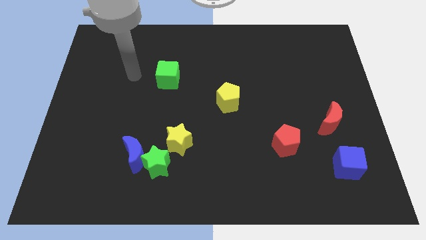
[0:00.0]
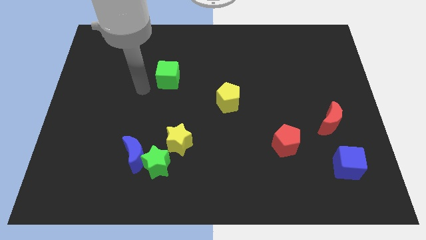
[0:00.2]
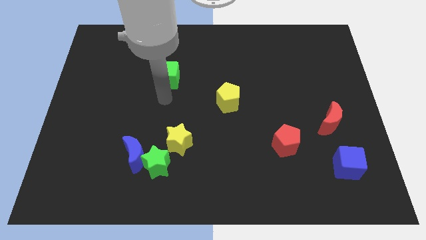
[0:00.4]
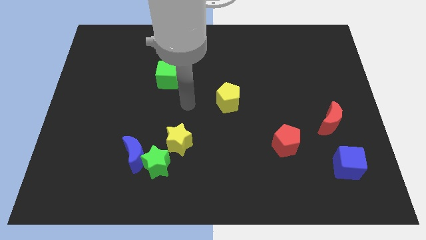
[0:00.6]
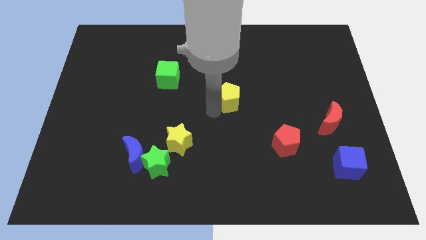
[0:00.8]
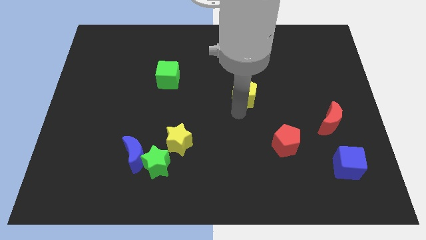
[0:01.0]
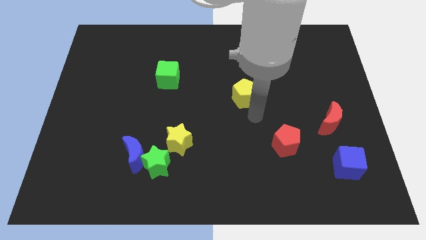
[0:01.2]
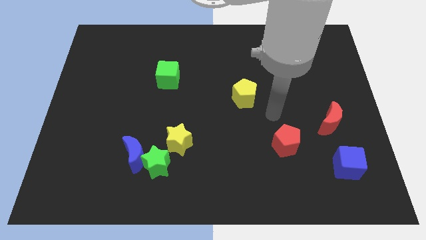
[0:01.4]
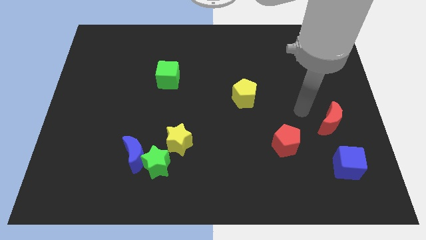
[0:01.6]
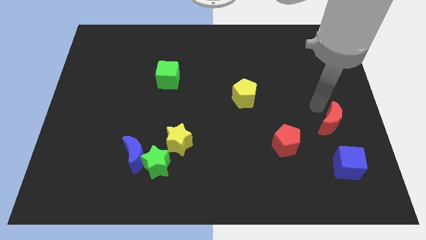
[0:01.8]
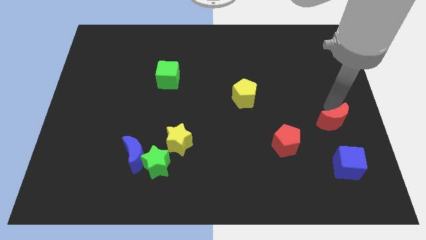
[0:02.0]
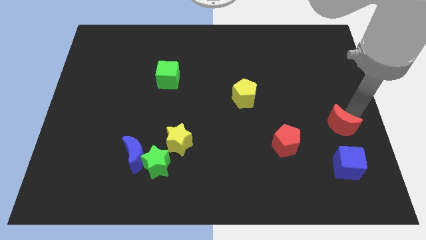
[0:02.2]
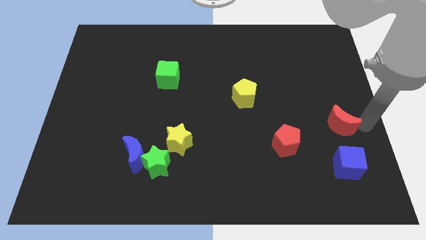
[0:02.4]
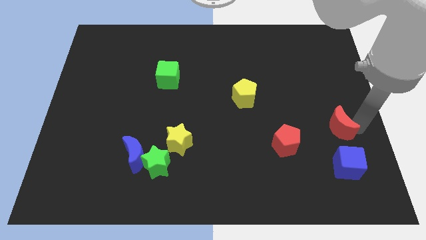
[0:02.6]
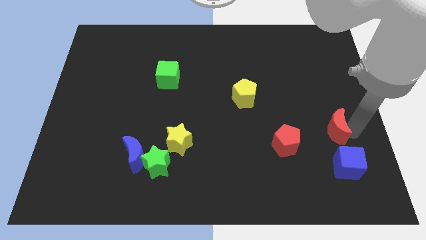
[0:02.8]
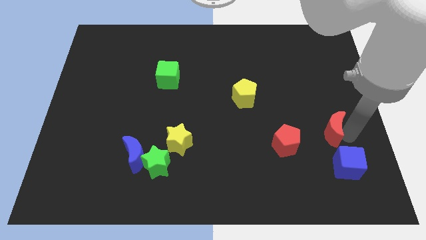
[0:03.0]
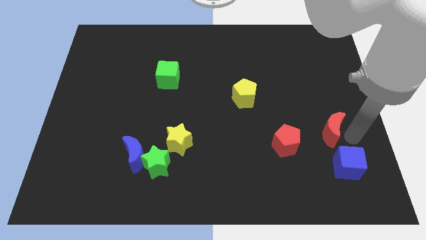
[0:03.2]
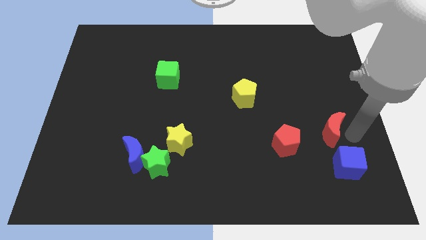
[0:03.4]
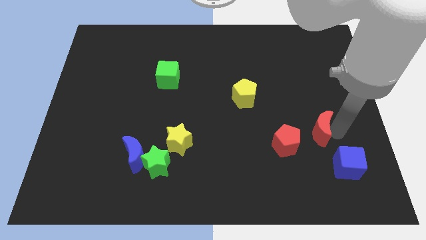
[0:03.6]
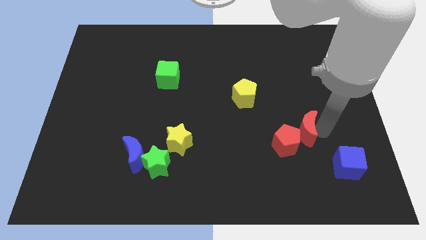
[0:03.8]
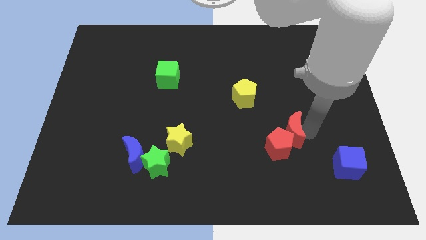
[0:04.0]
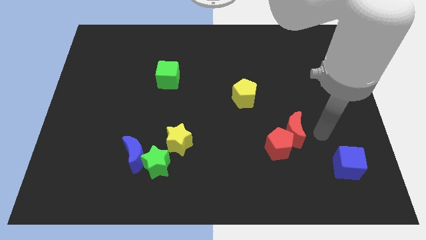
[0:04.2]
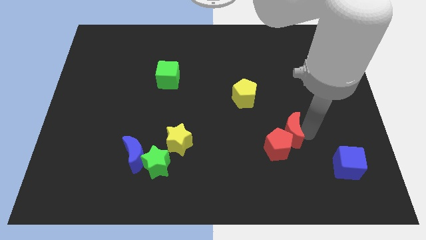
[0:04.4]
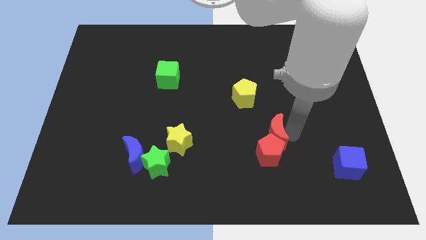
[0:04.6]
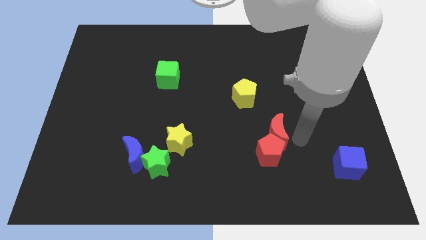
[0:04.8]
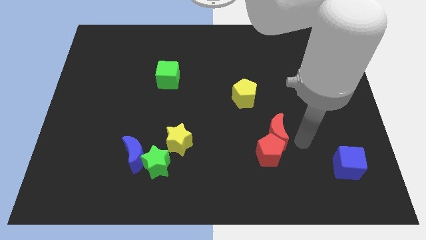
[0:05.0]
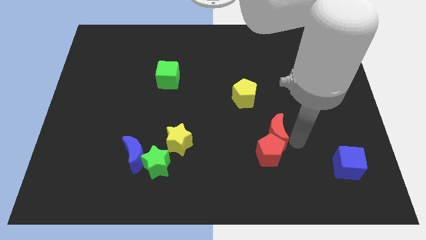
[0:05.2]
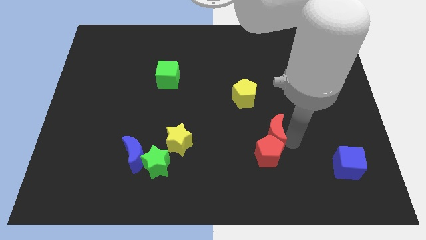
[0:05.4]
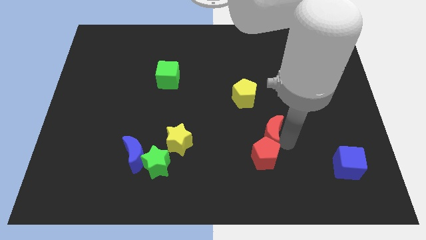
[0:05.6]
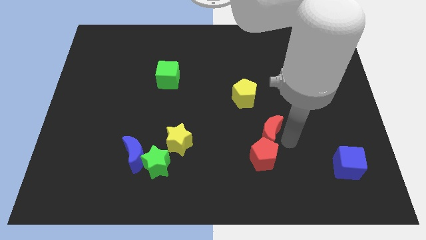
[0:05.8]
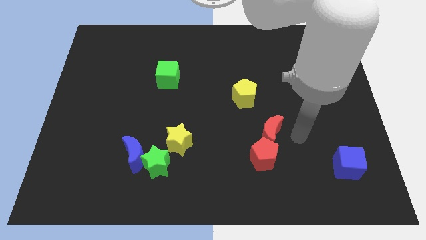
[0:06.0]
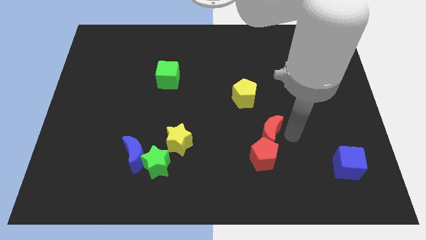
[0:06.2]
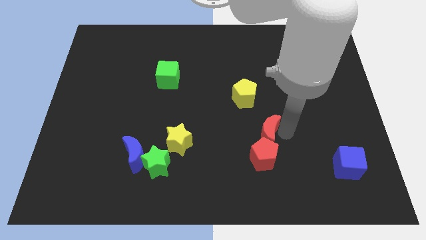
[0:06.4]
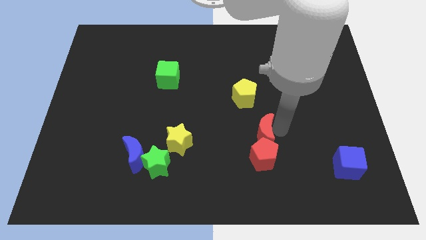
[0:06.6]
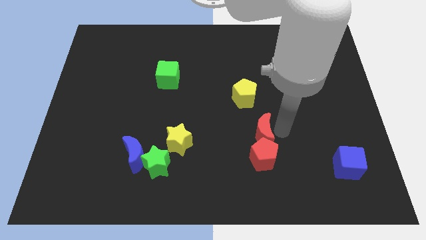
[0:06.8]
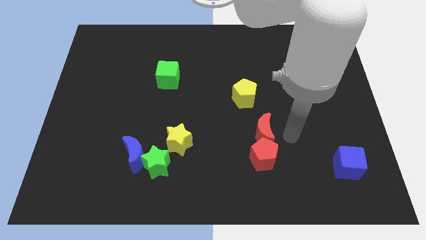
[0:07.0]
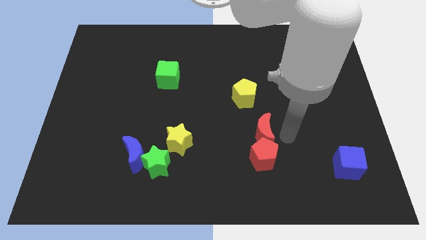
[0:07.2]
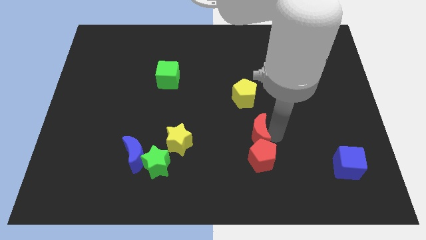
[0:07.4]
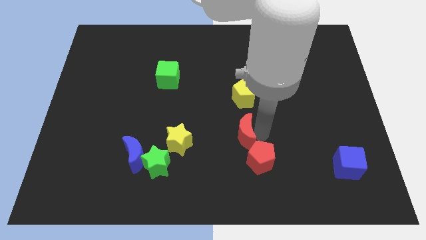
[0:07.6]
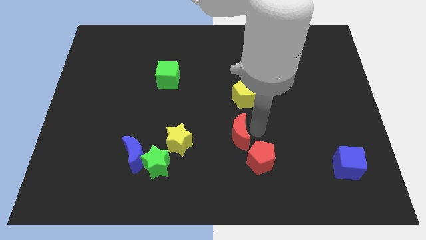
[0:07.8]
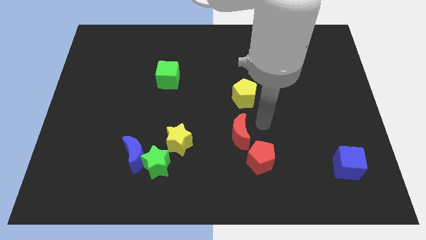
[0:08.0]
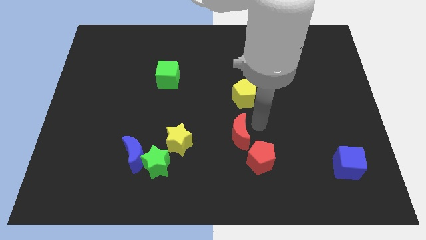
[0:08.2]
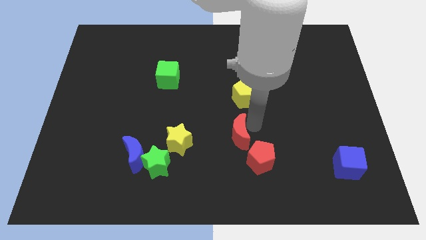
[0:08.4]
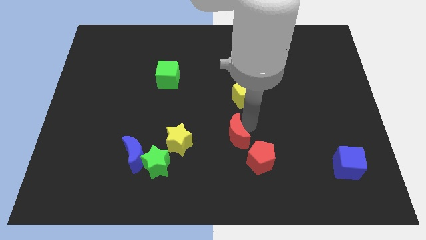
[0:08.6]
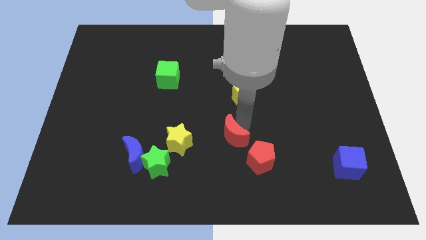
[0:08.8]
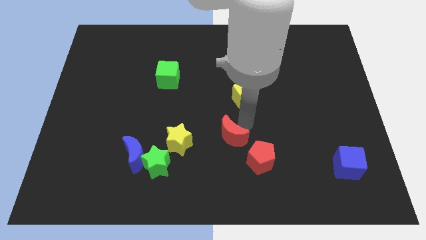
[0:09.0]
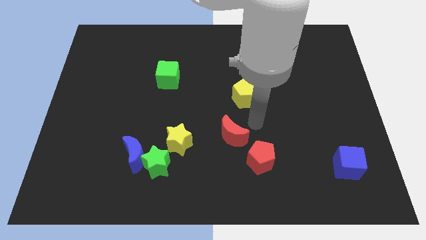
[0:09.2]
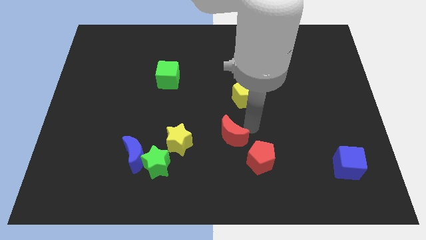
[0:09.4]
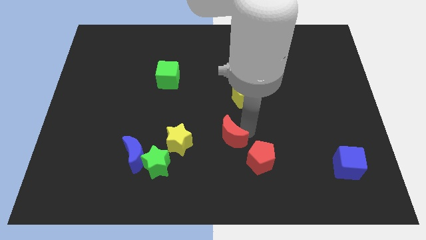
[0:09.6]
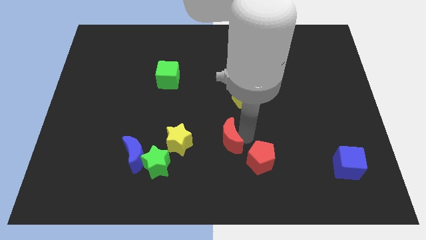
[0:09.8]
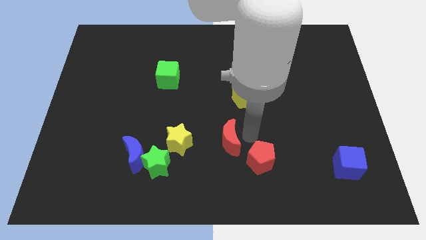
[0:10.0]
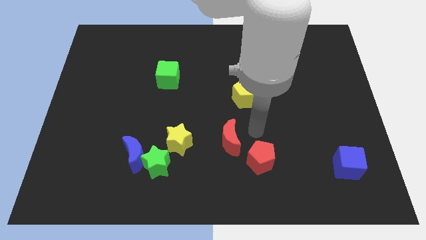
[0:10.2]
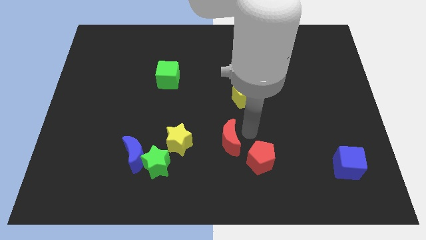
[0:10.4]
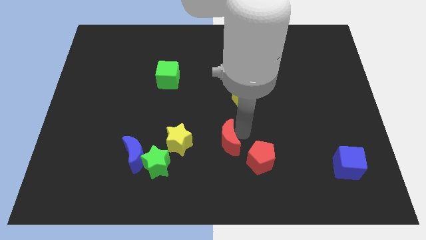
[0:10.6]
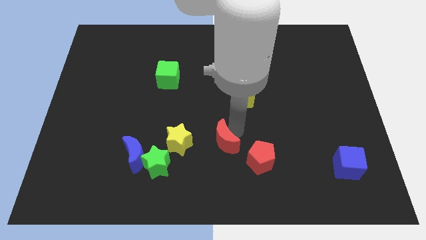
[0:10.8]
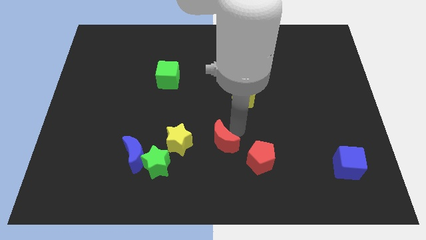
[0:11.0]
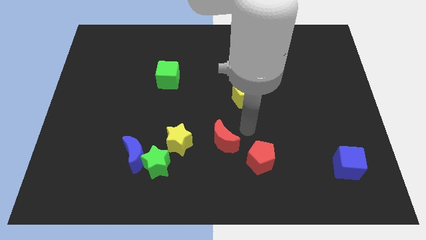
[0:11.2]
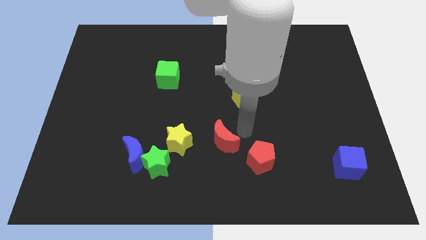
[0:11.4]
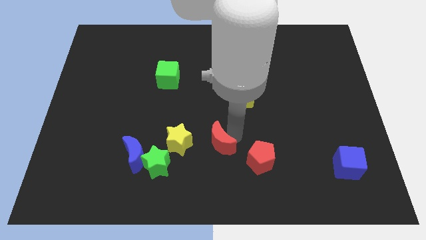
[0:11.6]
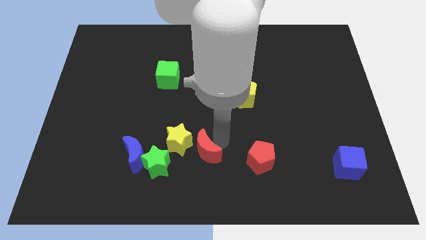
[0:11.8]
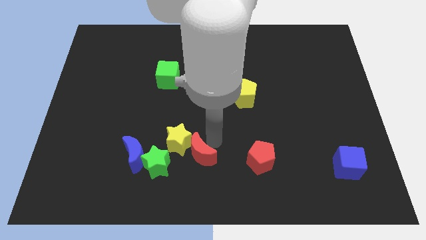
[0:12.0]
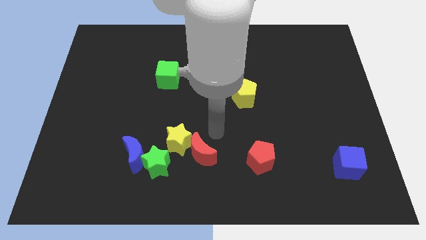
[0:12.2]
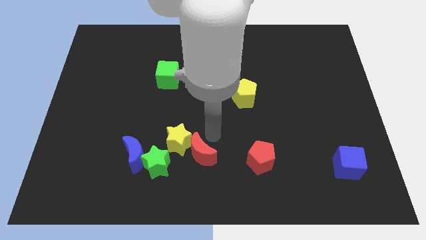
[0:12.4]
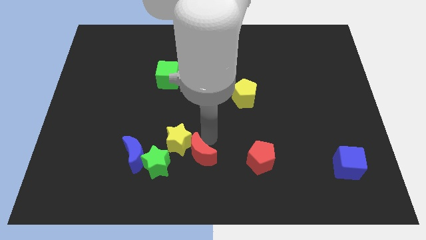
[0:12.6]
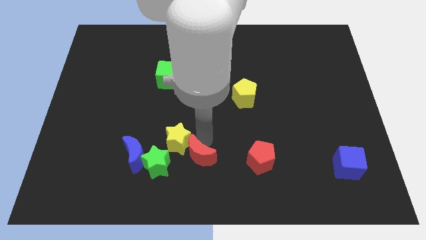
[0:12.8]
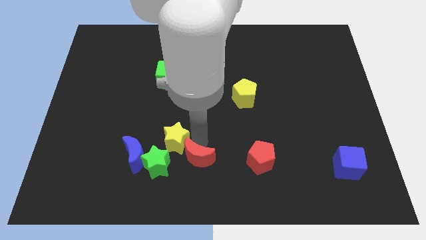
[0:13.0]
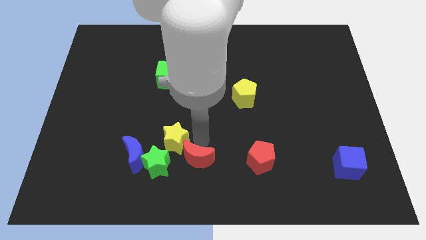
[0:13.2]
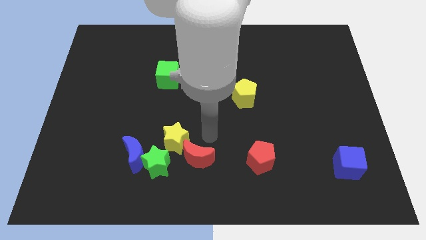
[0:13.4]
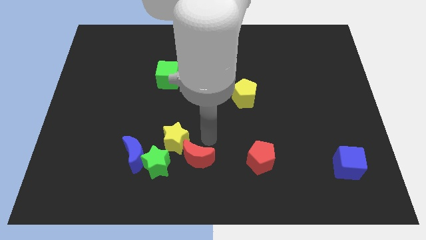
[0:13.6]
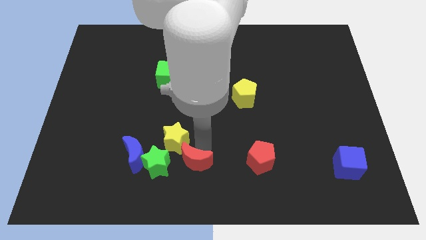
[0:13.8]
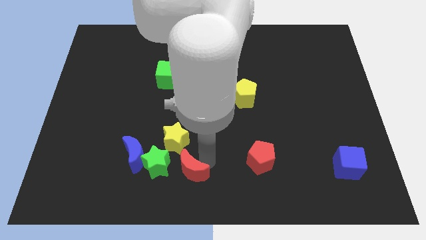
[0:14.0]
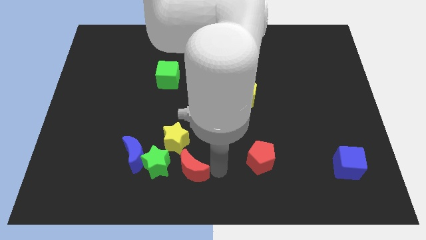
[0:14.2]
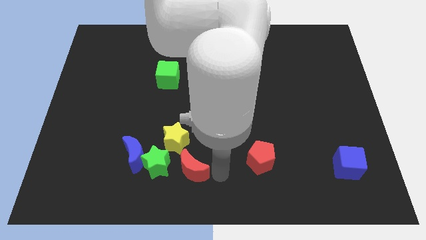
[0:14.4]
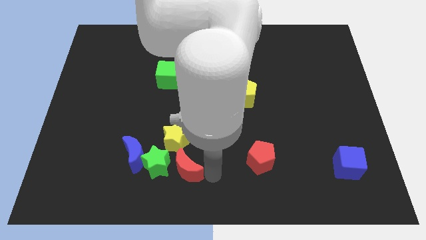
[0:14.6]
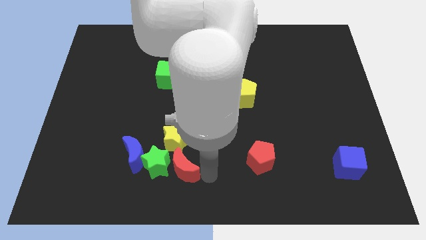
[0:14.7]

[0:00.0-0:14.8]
put the red moon close to the green star
